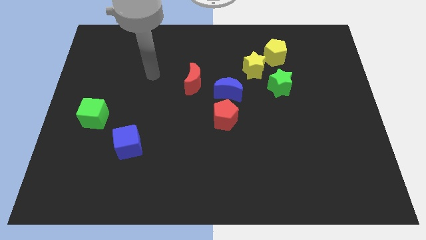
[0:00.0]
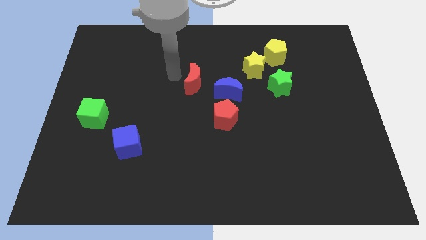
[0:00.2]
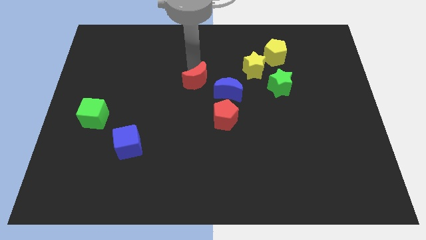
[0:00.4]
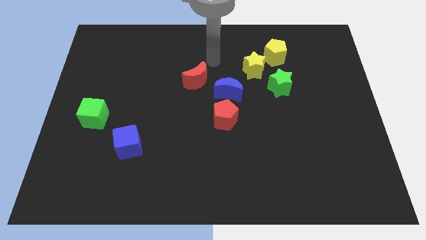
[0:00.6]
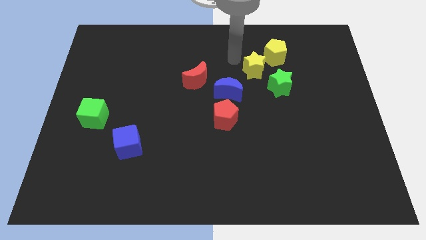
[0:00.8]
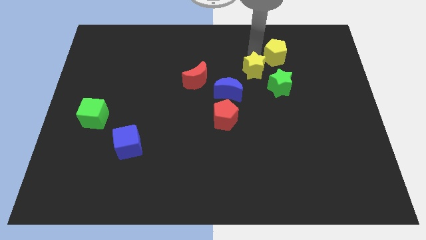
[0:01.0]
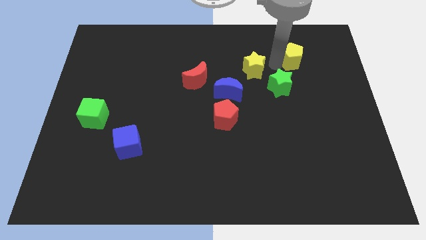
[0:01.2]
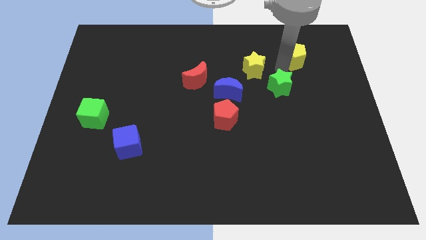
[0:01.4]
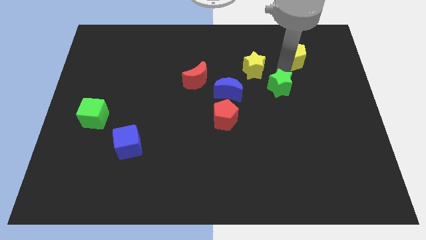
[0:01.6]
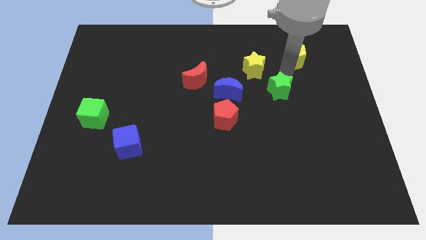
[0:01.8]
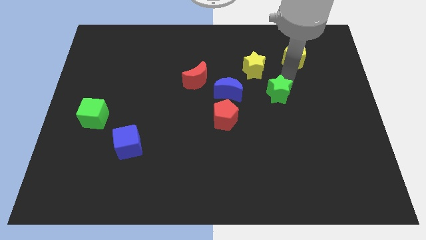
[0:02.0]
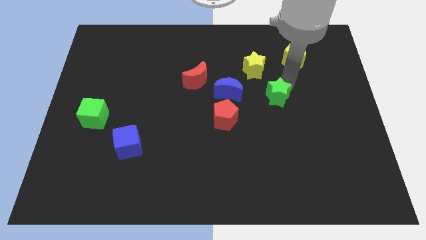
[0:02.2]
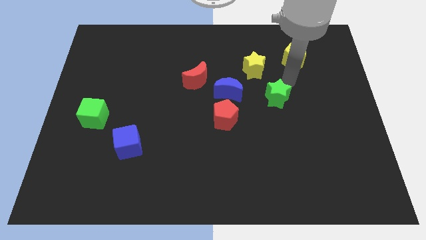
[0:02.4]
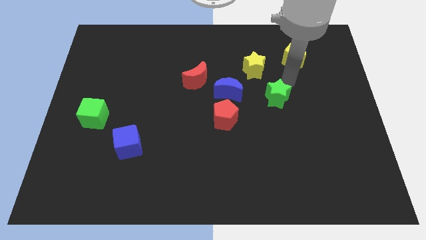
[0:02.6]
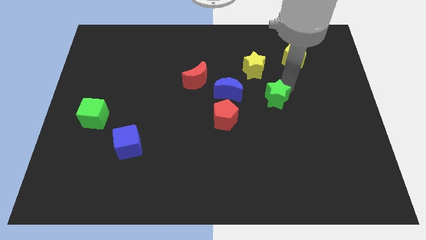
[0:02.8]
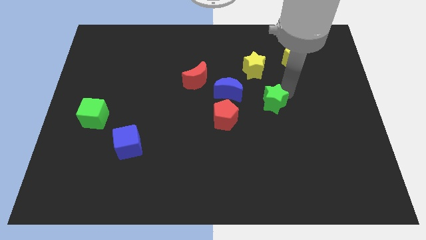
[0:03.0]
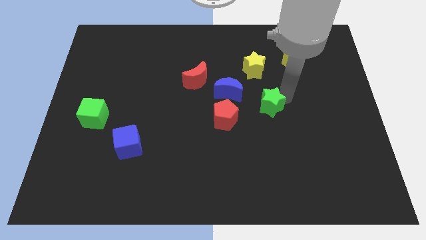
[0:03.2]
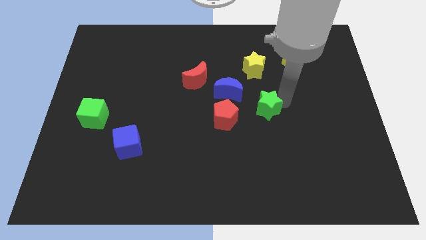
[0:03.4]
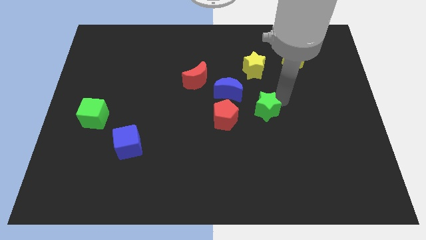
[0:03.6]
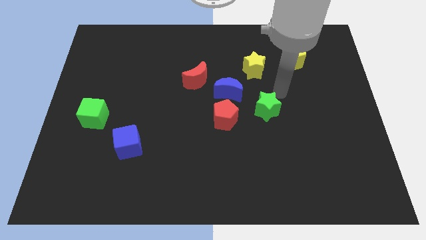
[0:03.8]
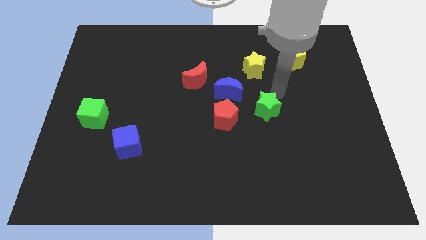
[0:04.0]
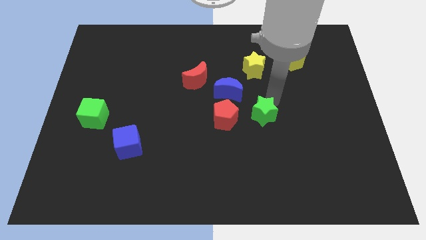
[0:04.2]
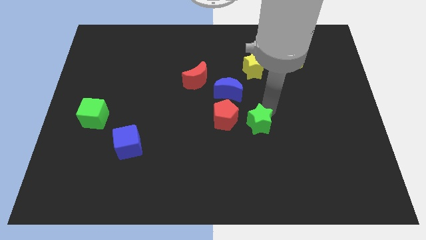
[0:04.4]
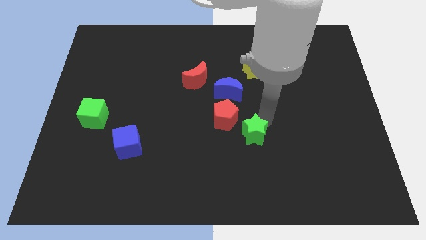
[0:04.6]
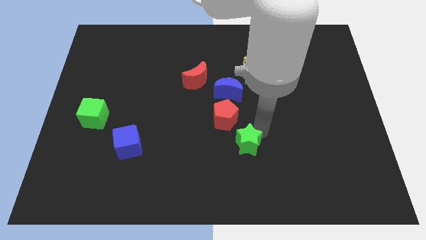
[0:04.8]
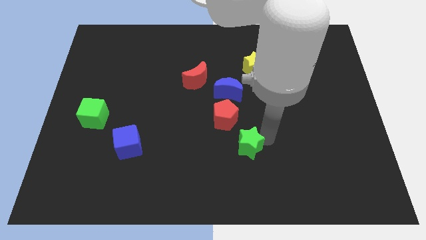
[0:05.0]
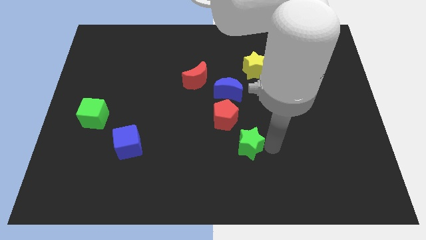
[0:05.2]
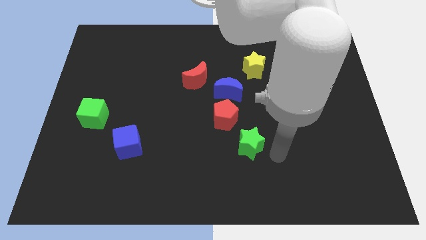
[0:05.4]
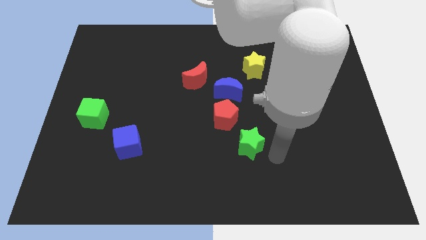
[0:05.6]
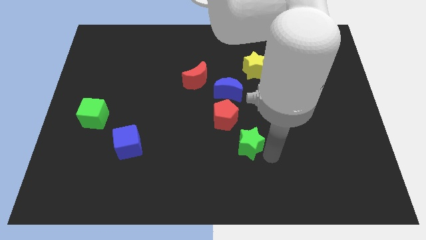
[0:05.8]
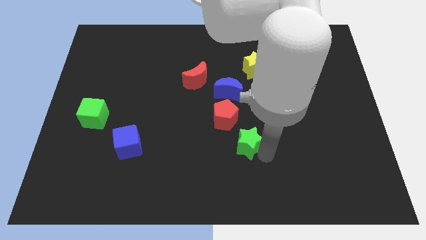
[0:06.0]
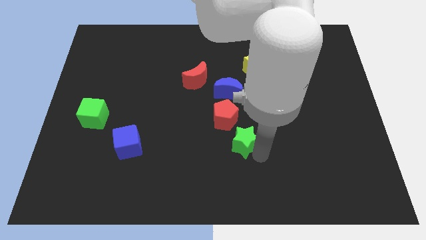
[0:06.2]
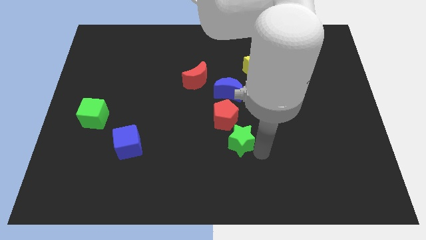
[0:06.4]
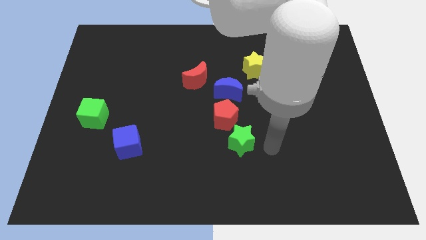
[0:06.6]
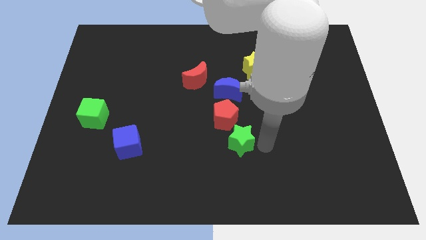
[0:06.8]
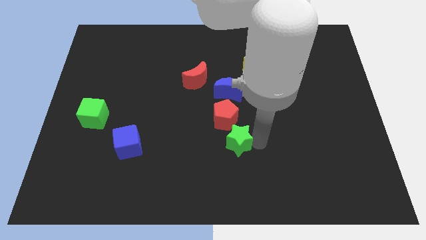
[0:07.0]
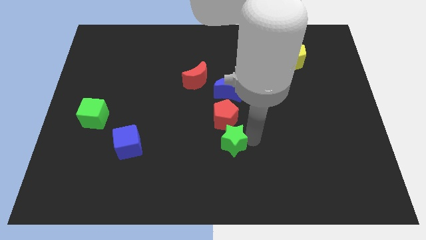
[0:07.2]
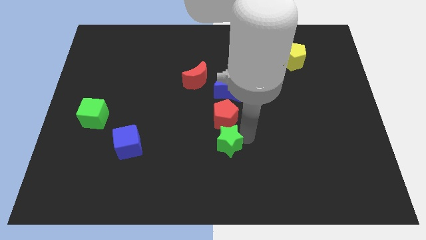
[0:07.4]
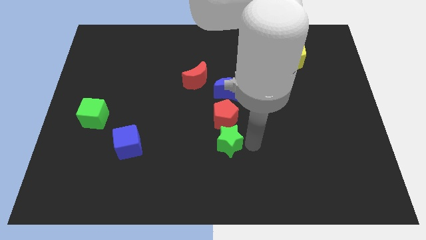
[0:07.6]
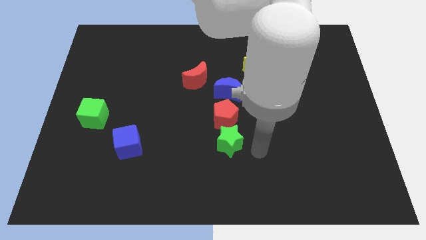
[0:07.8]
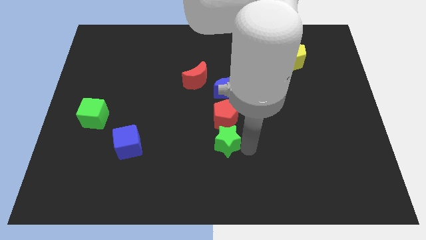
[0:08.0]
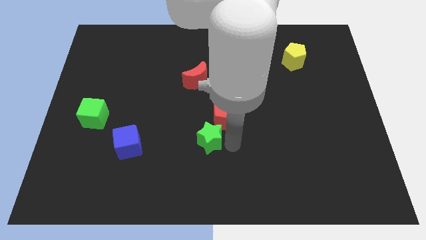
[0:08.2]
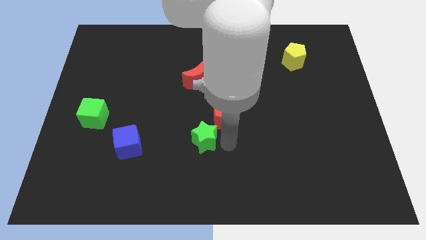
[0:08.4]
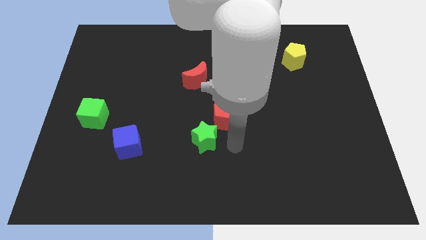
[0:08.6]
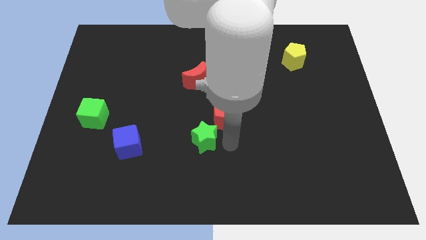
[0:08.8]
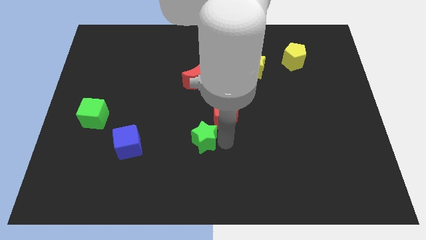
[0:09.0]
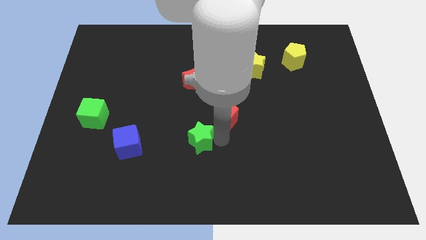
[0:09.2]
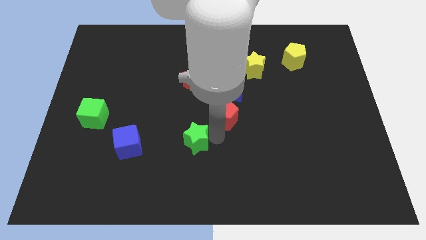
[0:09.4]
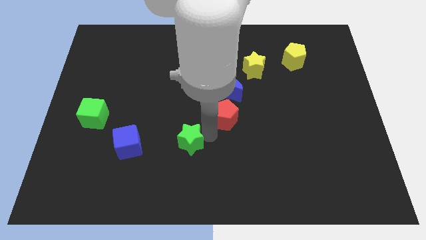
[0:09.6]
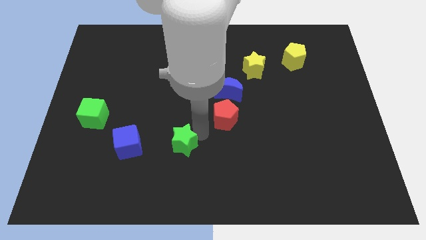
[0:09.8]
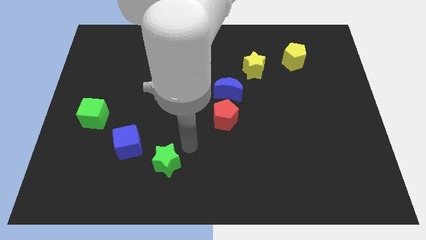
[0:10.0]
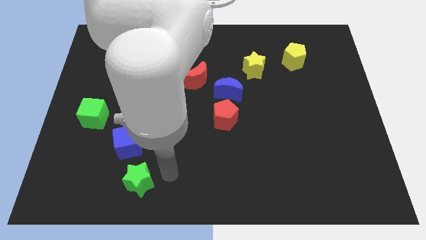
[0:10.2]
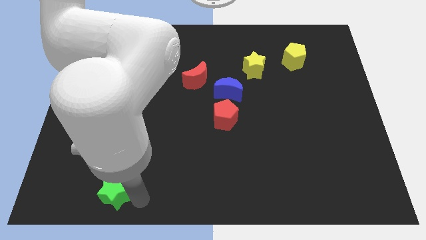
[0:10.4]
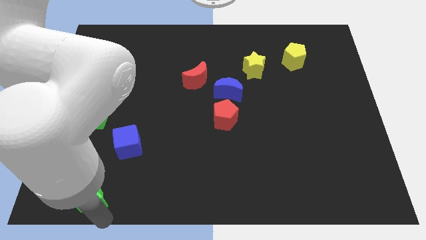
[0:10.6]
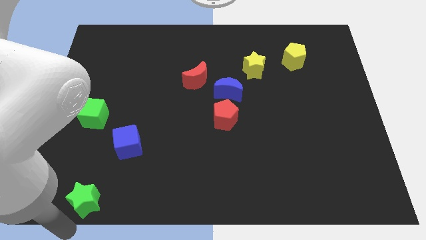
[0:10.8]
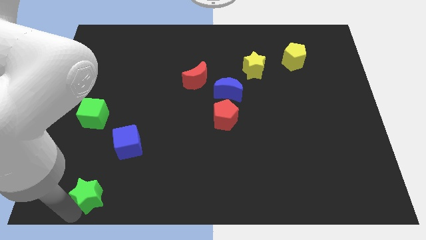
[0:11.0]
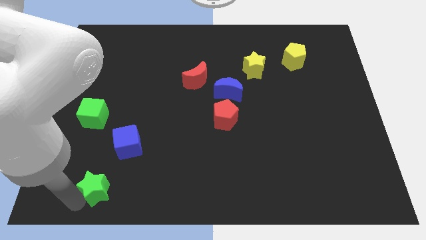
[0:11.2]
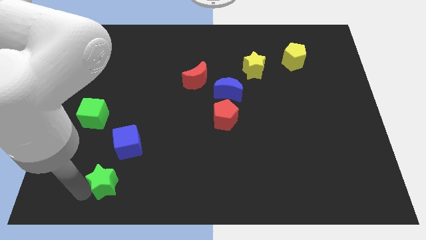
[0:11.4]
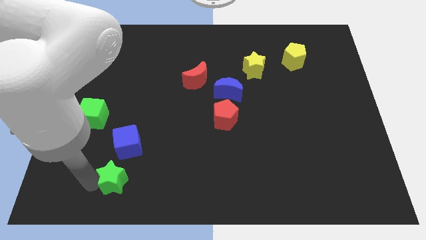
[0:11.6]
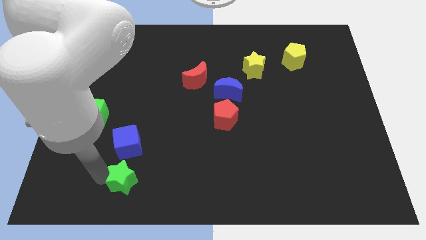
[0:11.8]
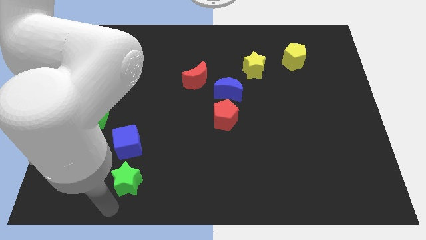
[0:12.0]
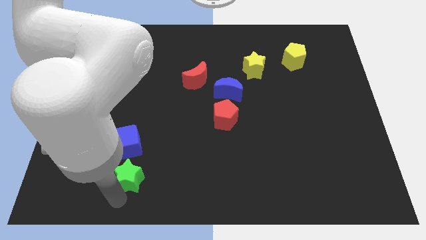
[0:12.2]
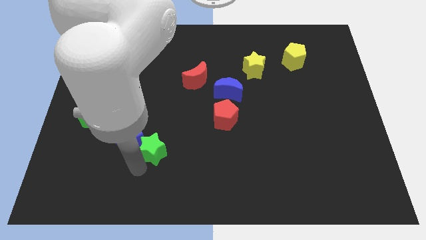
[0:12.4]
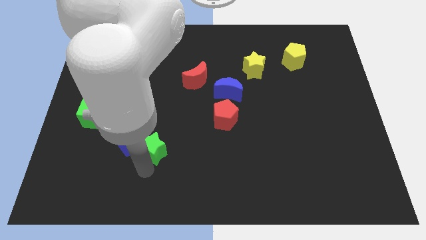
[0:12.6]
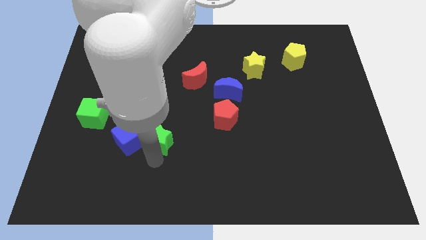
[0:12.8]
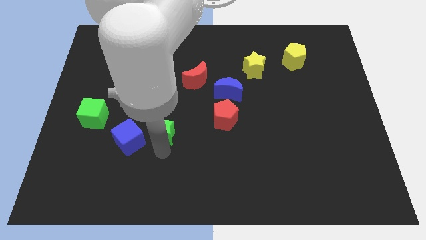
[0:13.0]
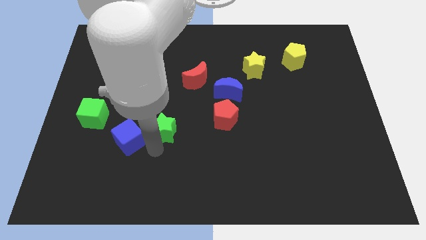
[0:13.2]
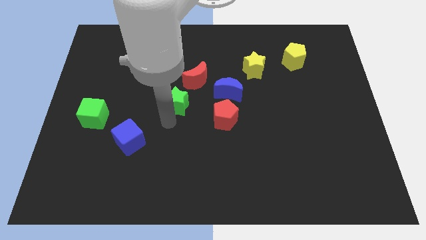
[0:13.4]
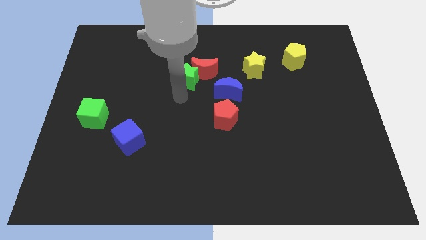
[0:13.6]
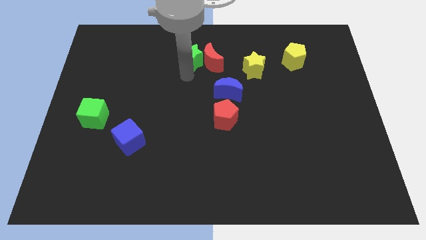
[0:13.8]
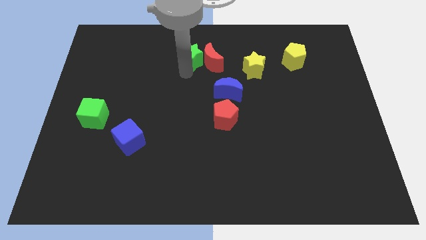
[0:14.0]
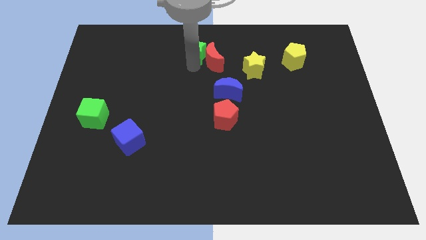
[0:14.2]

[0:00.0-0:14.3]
slide the green star to the top
